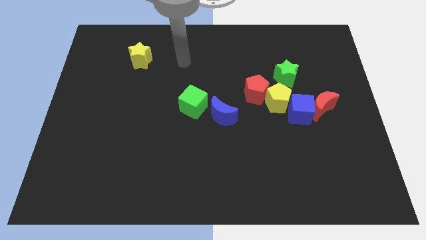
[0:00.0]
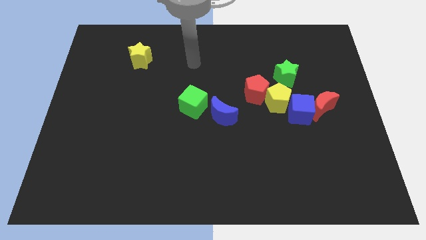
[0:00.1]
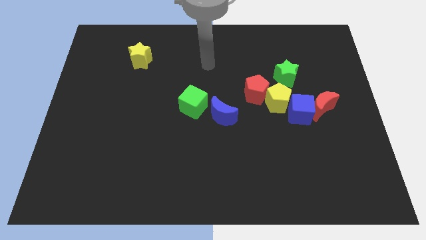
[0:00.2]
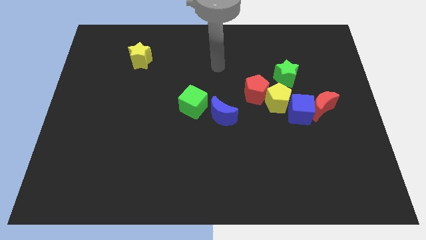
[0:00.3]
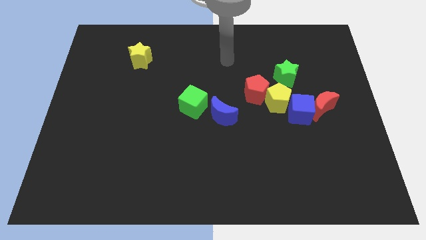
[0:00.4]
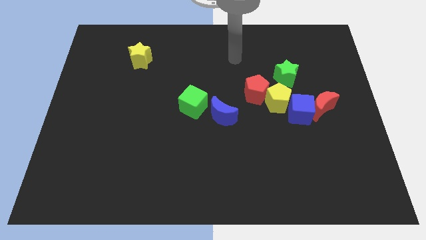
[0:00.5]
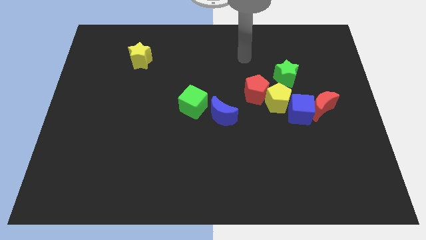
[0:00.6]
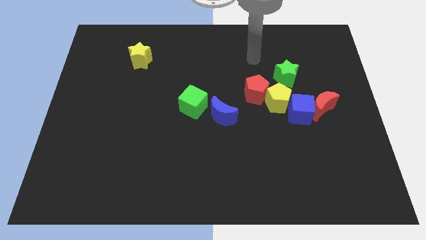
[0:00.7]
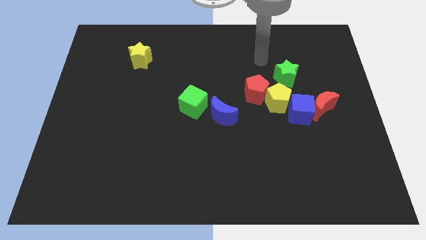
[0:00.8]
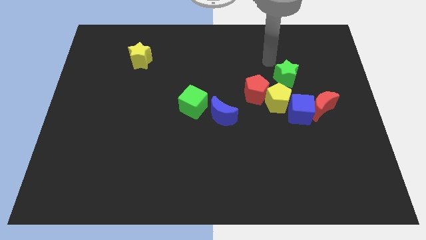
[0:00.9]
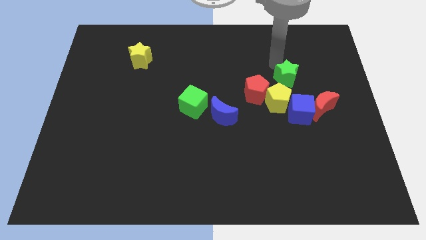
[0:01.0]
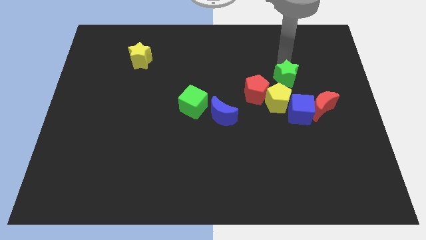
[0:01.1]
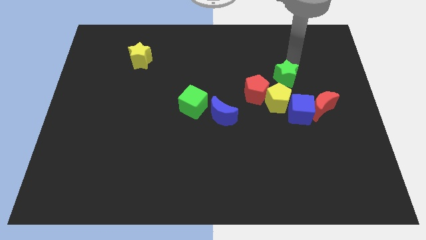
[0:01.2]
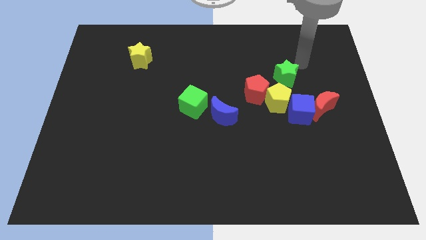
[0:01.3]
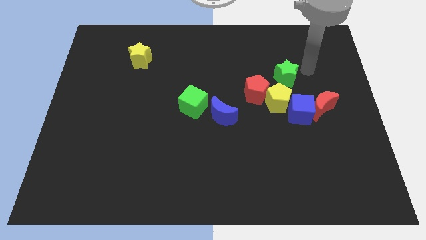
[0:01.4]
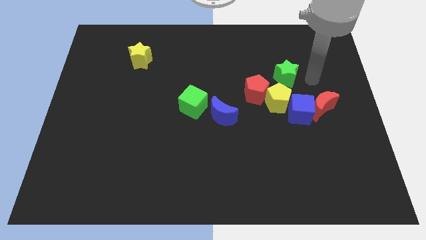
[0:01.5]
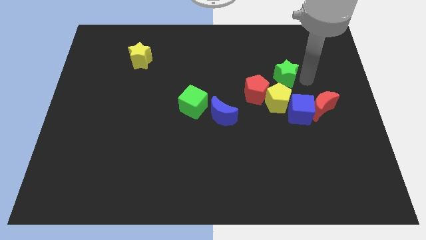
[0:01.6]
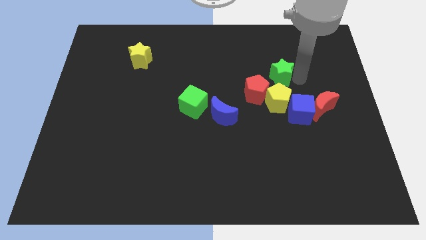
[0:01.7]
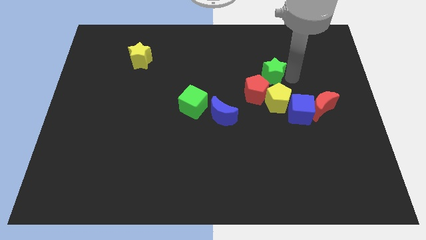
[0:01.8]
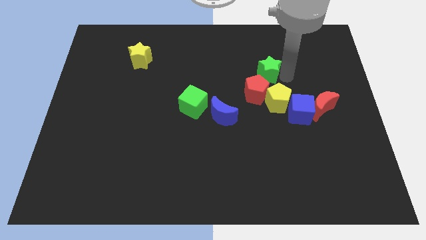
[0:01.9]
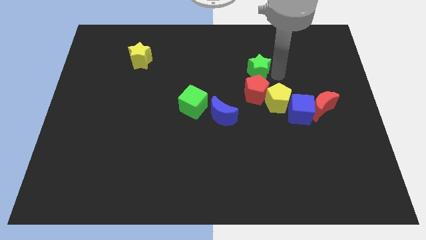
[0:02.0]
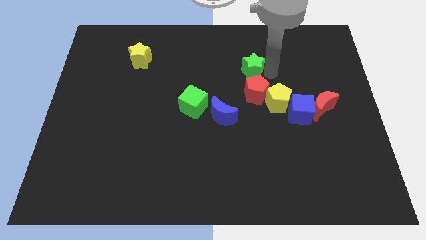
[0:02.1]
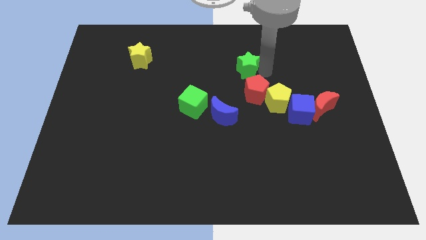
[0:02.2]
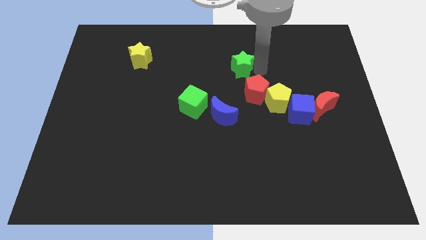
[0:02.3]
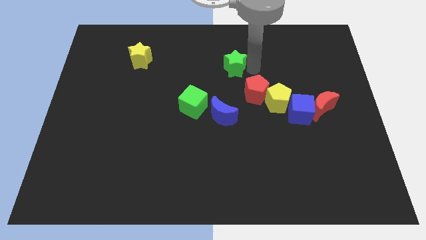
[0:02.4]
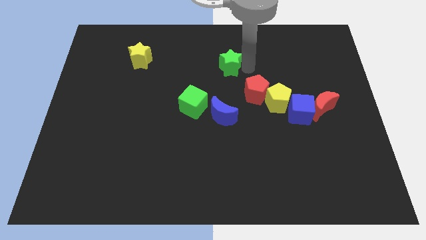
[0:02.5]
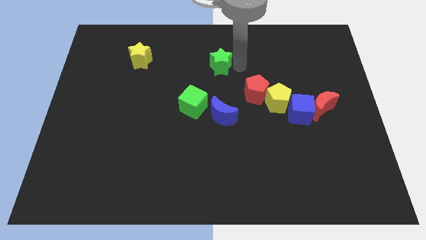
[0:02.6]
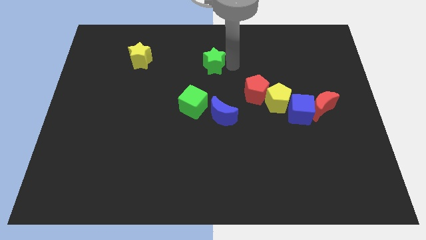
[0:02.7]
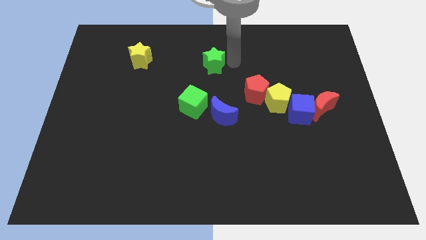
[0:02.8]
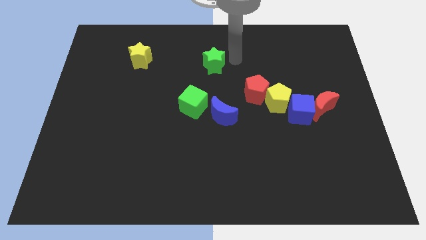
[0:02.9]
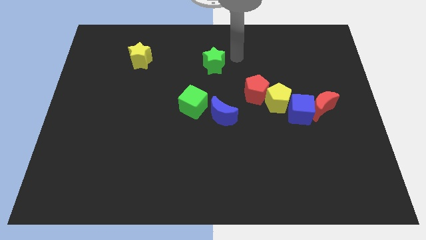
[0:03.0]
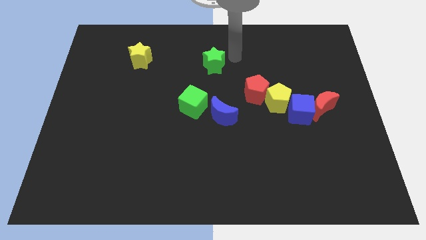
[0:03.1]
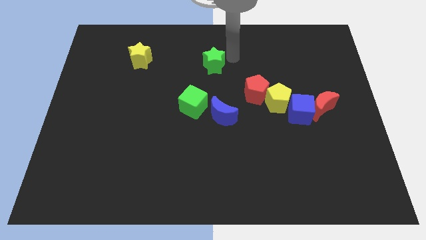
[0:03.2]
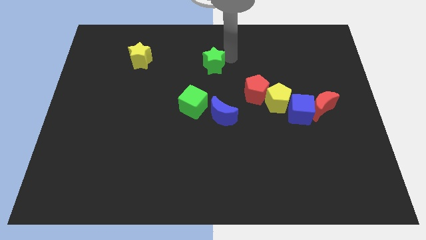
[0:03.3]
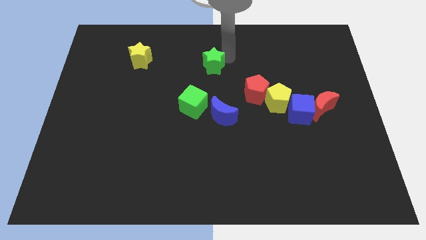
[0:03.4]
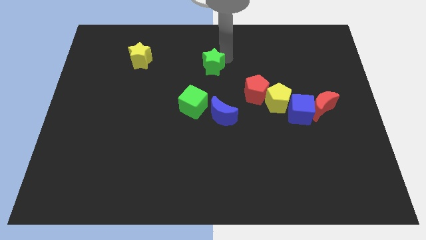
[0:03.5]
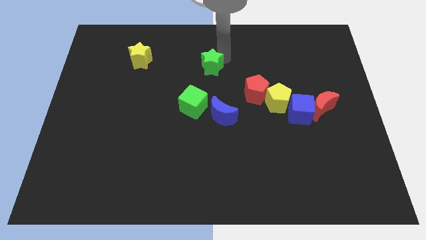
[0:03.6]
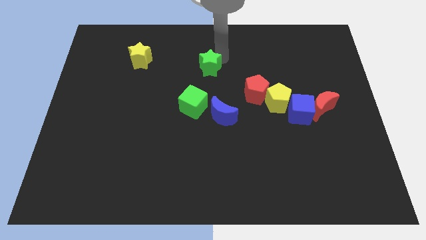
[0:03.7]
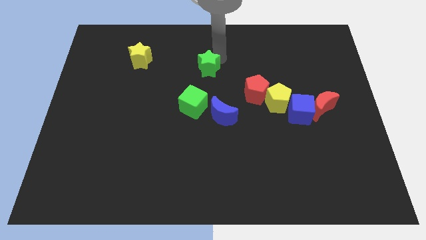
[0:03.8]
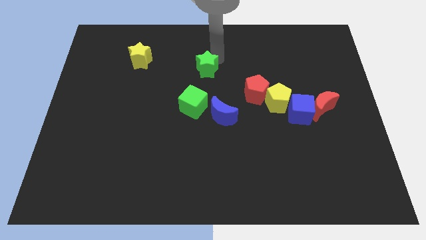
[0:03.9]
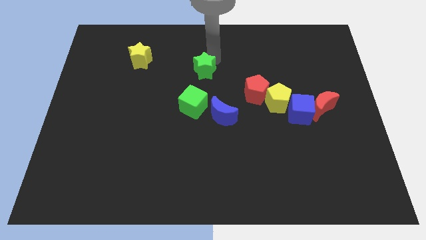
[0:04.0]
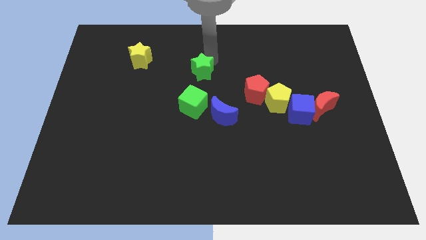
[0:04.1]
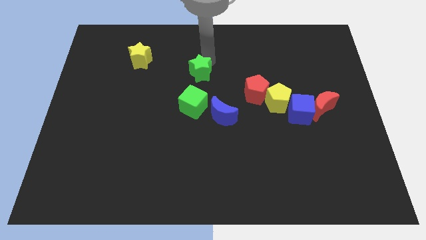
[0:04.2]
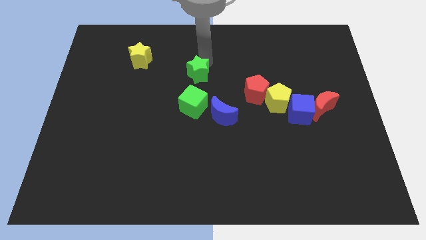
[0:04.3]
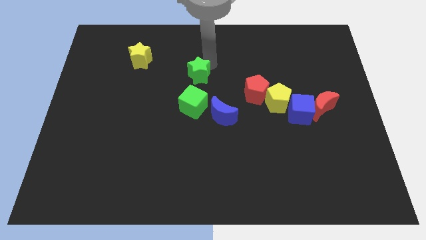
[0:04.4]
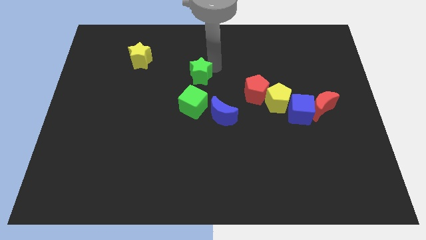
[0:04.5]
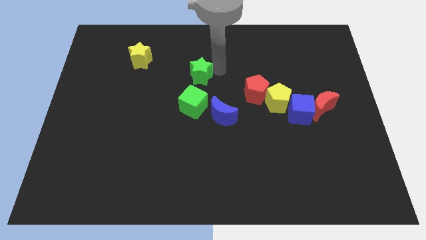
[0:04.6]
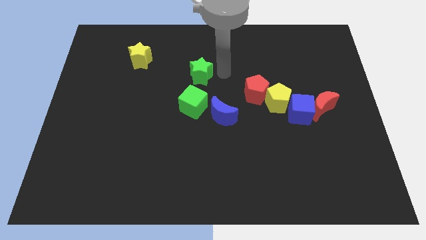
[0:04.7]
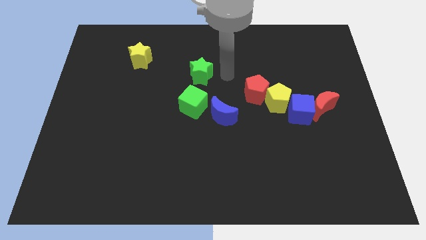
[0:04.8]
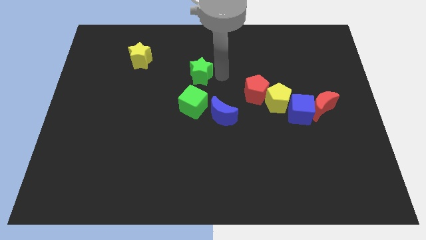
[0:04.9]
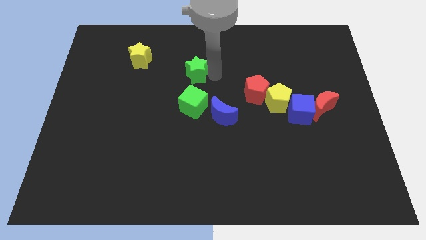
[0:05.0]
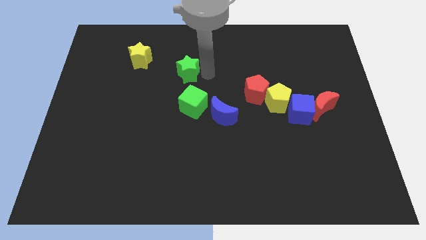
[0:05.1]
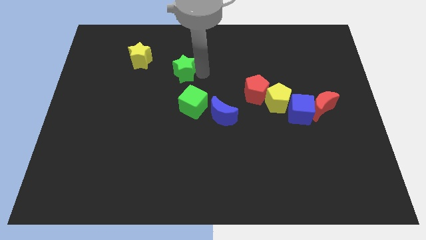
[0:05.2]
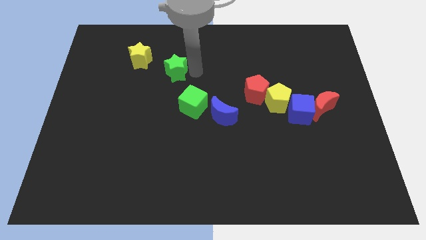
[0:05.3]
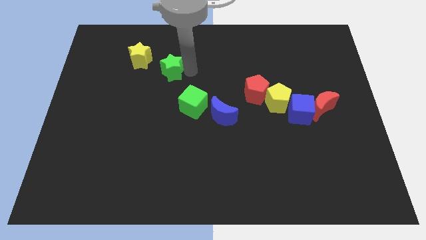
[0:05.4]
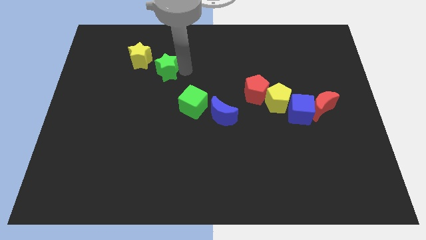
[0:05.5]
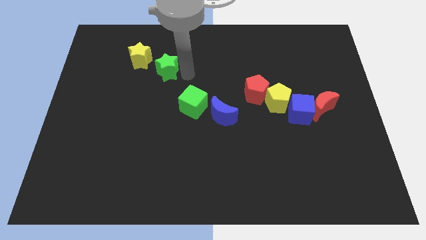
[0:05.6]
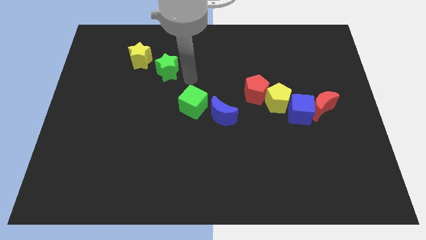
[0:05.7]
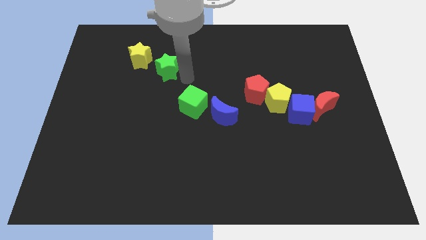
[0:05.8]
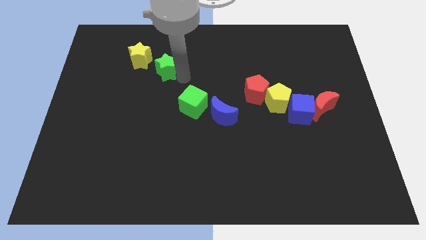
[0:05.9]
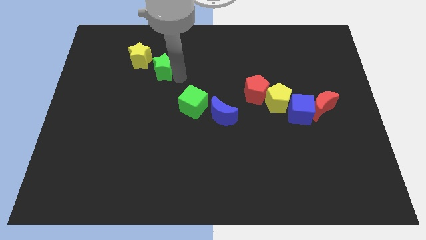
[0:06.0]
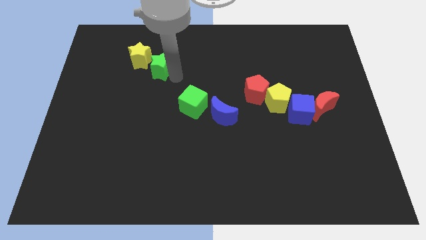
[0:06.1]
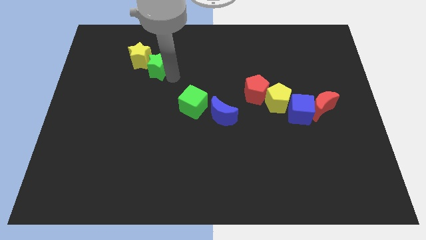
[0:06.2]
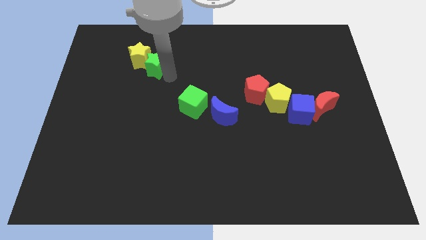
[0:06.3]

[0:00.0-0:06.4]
put the green star close to the yellow star
